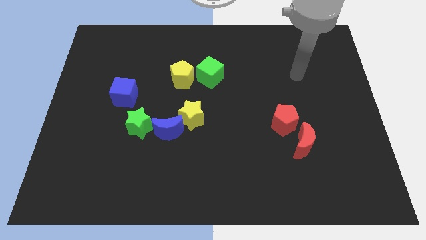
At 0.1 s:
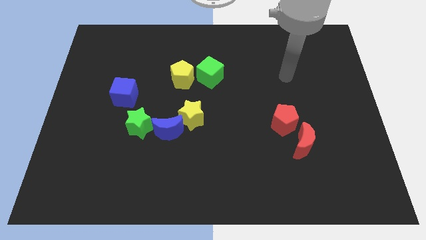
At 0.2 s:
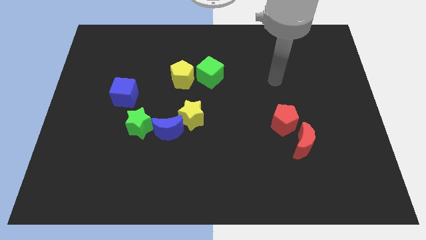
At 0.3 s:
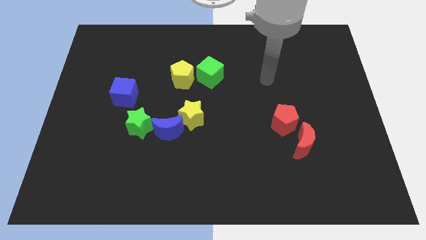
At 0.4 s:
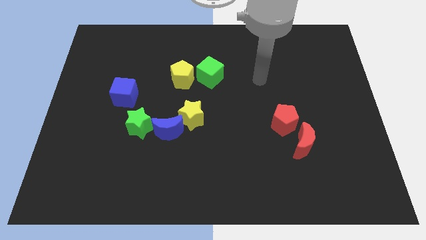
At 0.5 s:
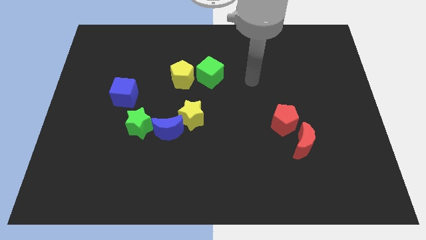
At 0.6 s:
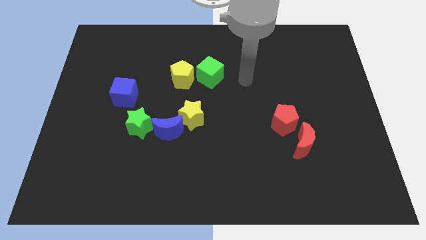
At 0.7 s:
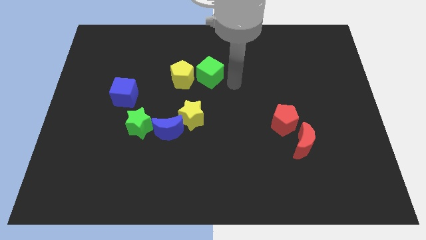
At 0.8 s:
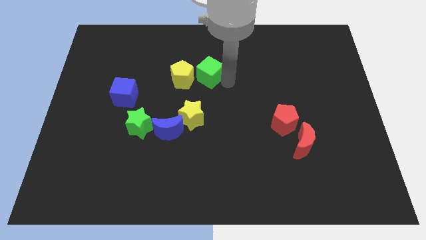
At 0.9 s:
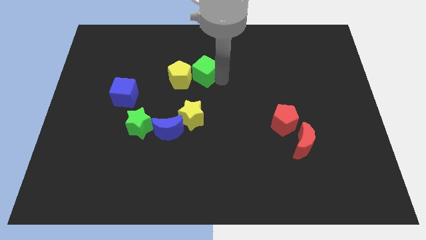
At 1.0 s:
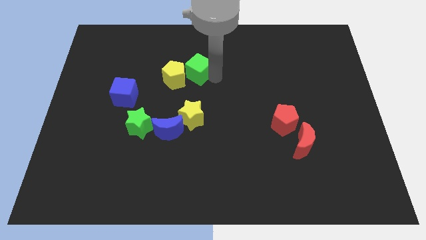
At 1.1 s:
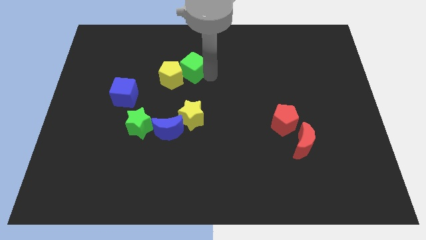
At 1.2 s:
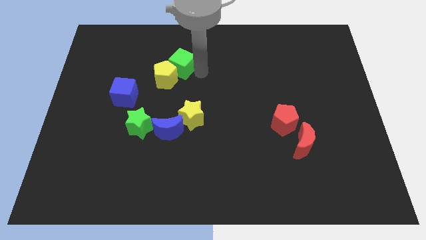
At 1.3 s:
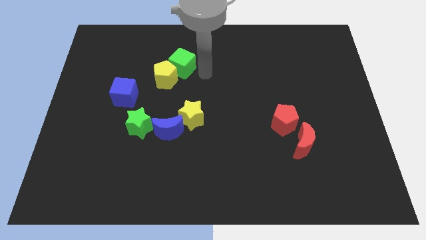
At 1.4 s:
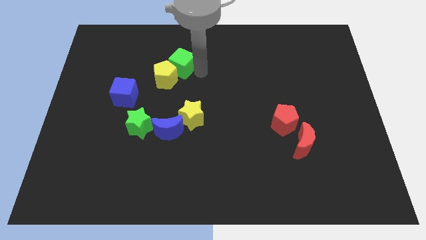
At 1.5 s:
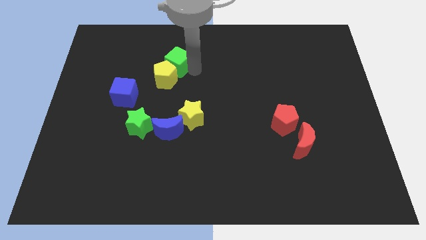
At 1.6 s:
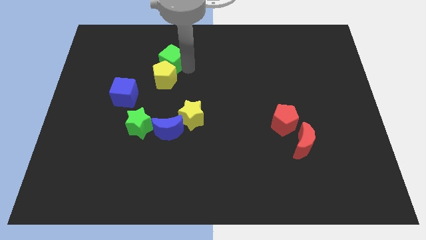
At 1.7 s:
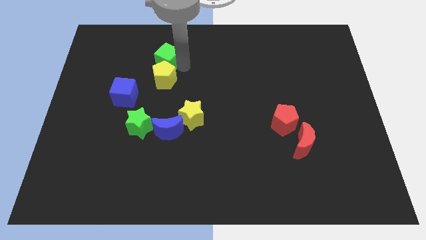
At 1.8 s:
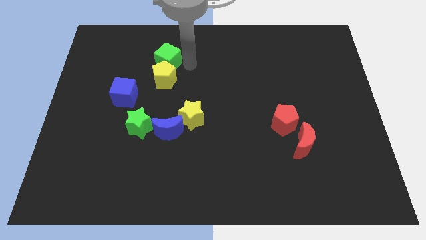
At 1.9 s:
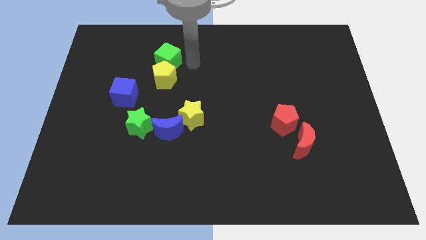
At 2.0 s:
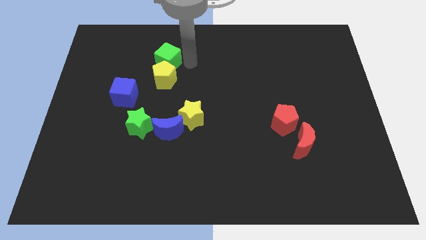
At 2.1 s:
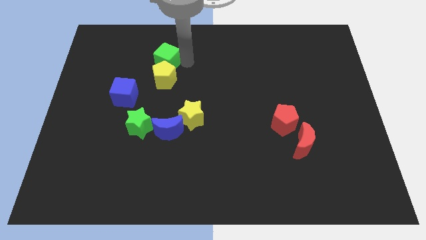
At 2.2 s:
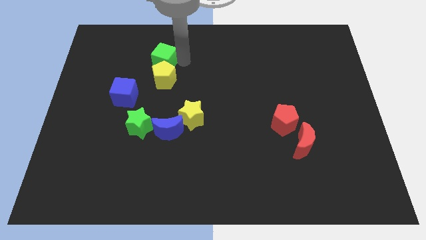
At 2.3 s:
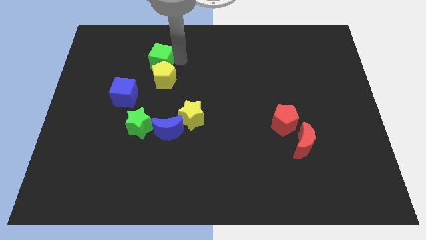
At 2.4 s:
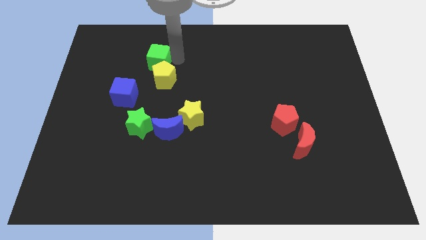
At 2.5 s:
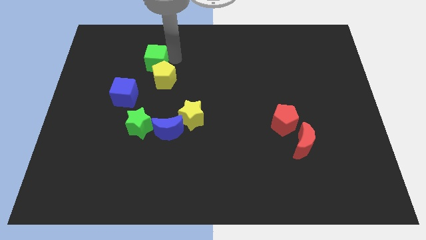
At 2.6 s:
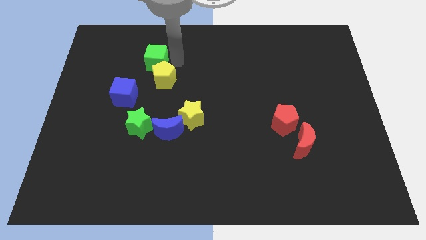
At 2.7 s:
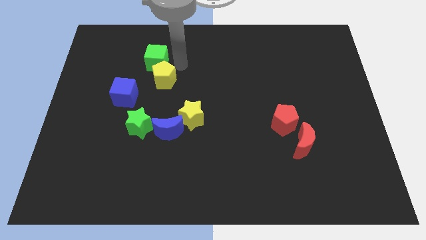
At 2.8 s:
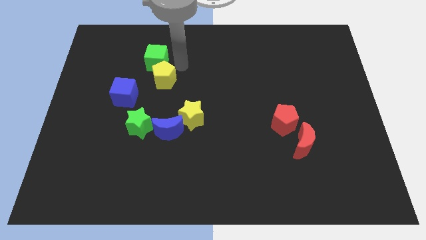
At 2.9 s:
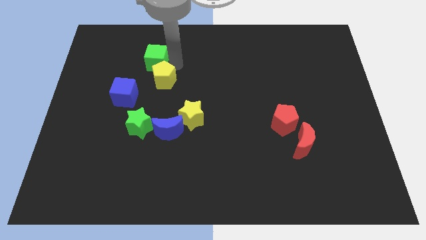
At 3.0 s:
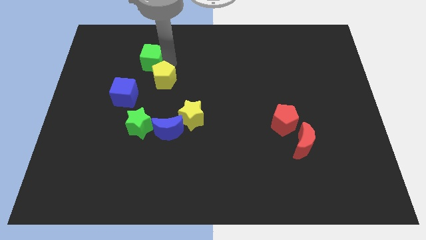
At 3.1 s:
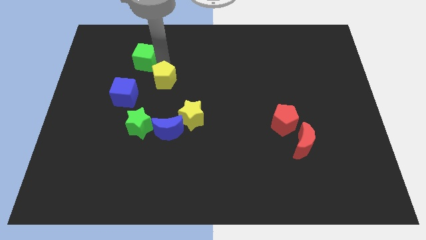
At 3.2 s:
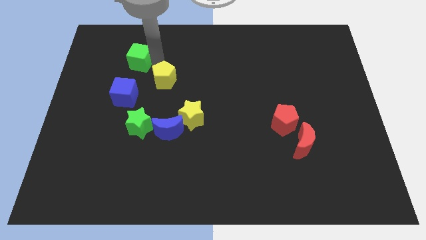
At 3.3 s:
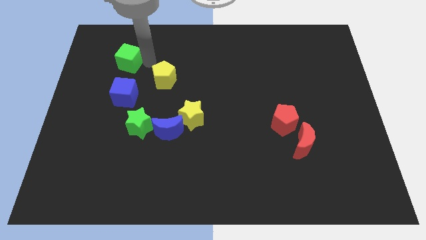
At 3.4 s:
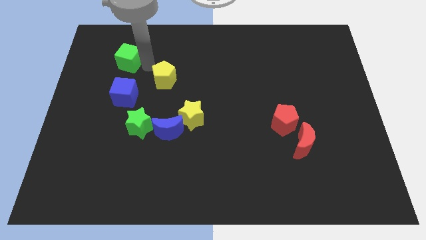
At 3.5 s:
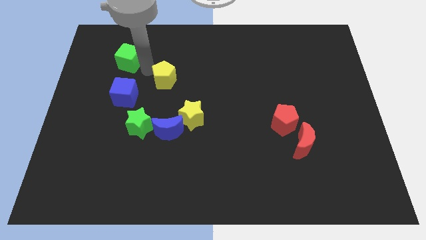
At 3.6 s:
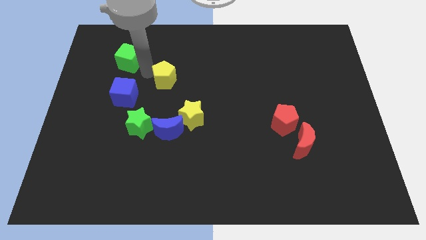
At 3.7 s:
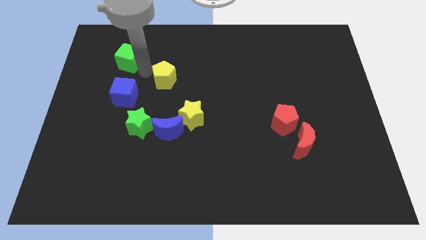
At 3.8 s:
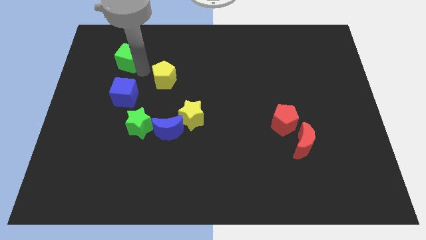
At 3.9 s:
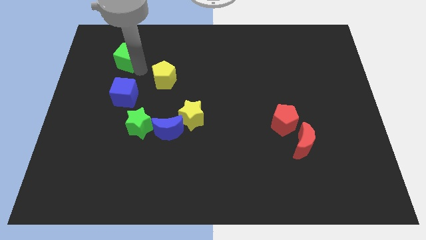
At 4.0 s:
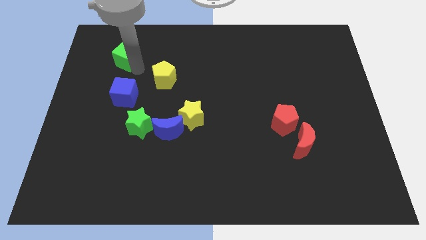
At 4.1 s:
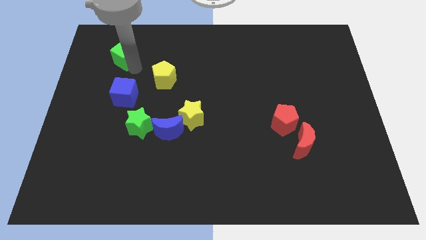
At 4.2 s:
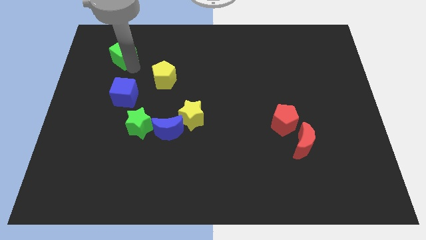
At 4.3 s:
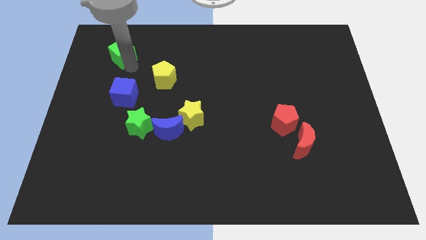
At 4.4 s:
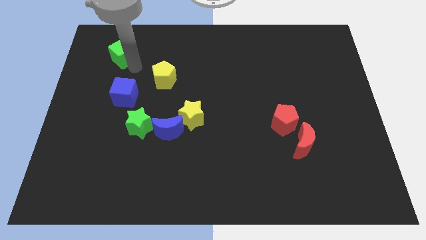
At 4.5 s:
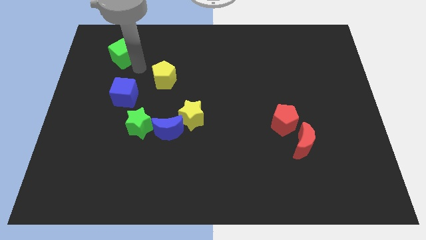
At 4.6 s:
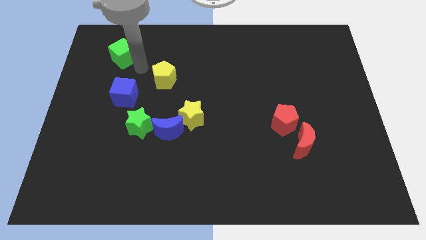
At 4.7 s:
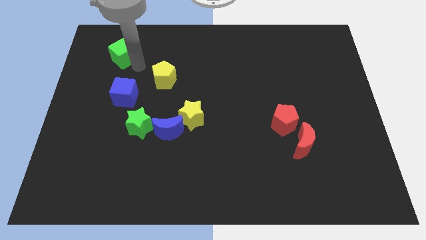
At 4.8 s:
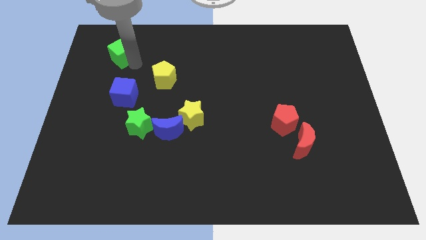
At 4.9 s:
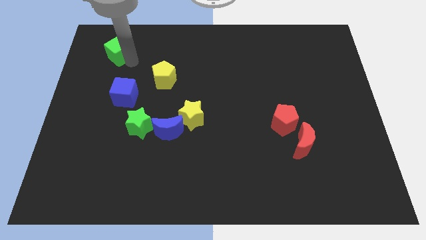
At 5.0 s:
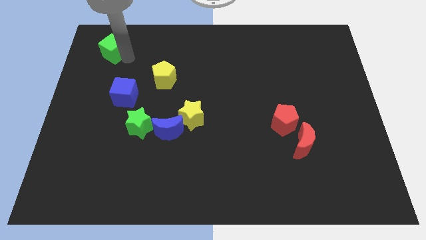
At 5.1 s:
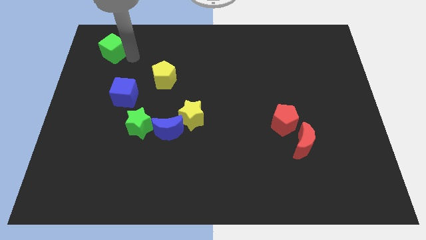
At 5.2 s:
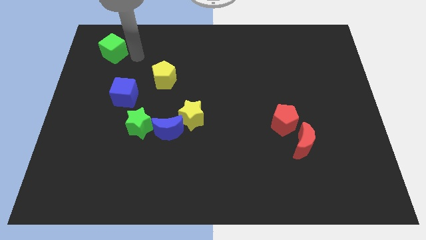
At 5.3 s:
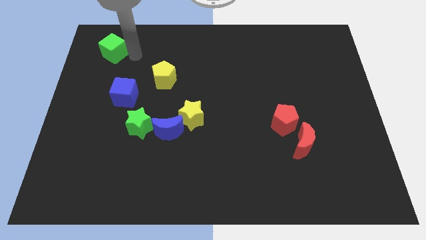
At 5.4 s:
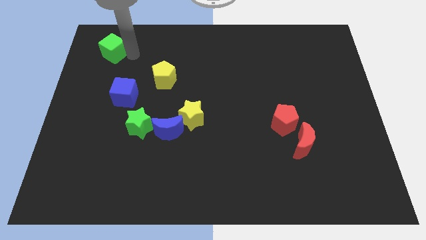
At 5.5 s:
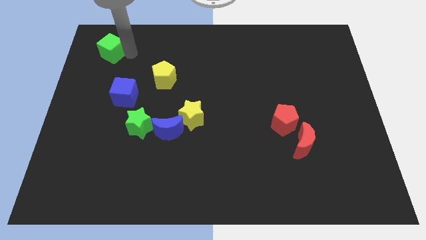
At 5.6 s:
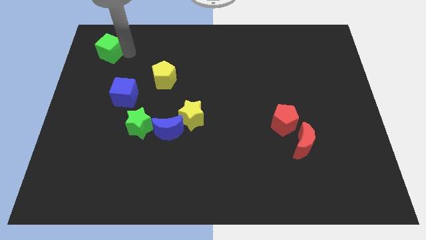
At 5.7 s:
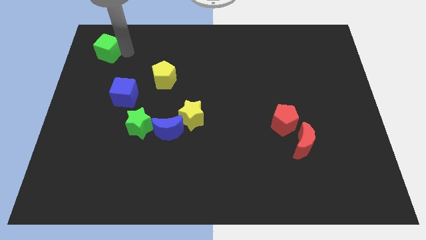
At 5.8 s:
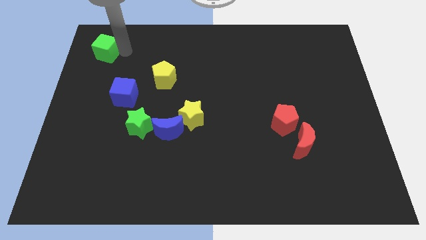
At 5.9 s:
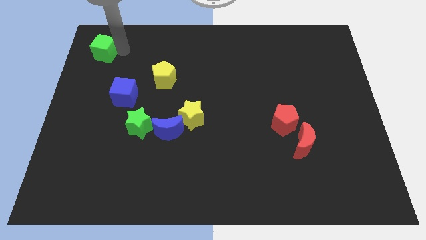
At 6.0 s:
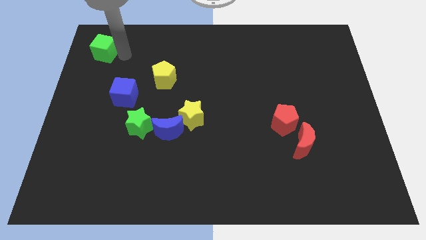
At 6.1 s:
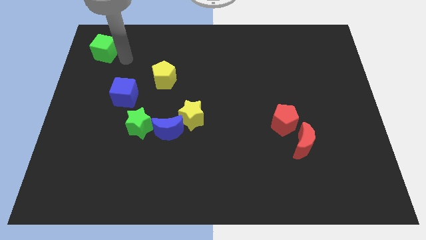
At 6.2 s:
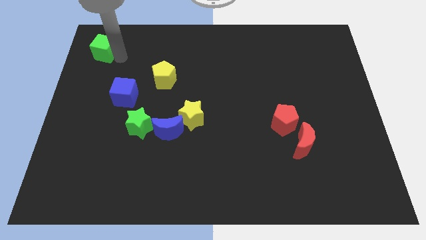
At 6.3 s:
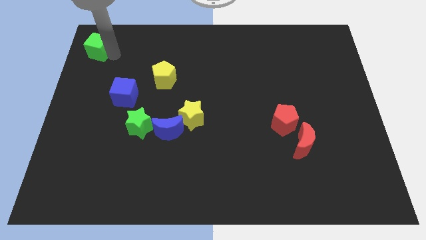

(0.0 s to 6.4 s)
put the green cube to the top left of the board
